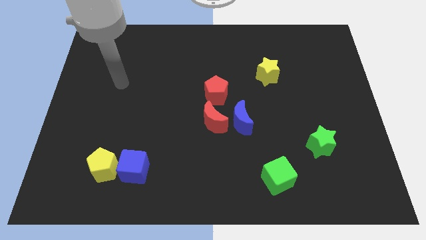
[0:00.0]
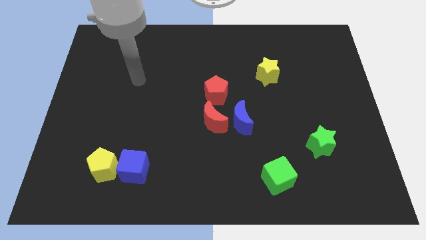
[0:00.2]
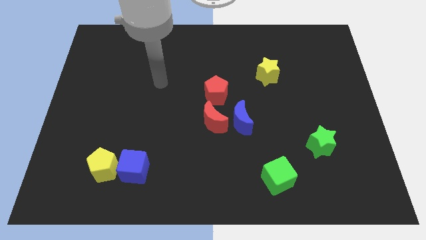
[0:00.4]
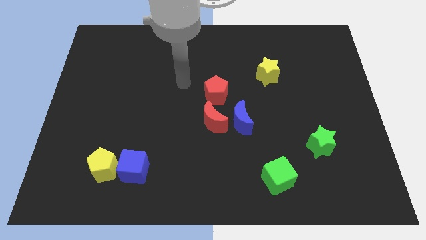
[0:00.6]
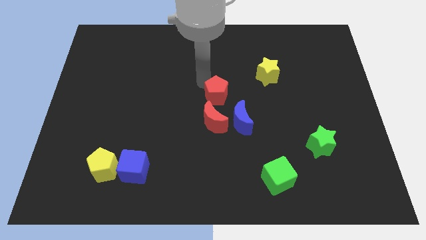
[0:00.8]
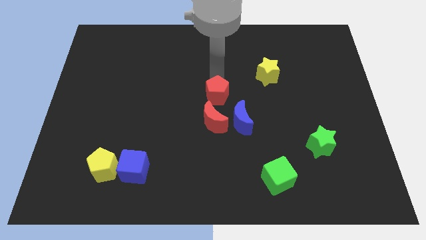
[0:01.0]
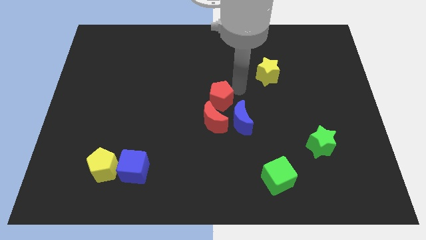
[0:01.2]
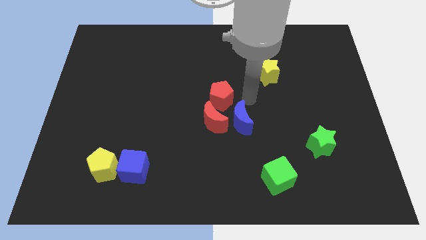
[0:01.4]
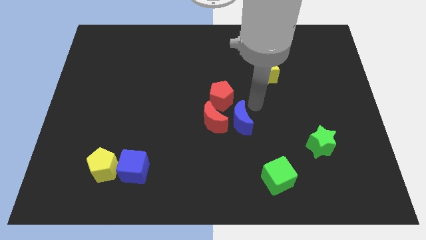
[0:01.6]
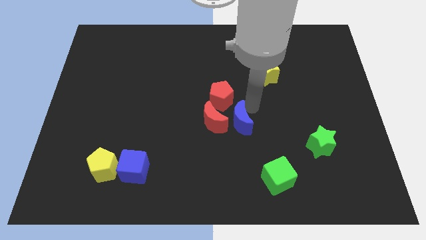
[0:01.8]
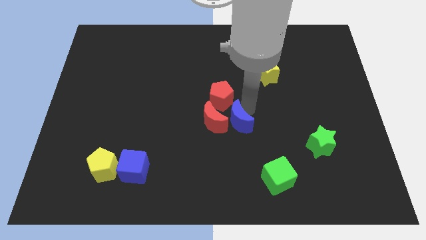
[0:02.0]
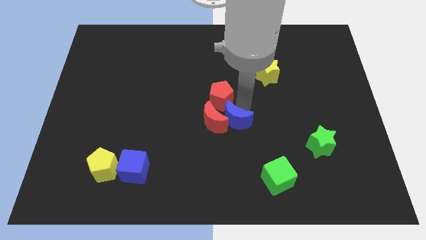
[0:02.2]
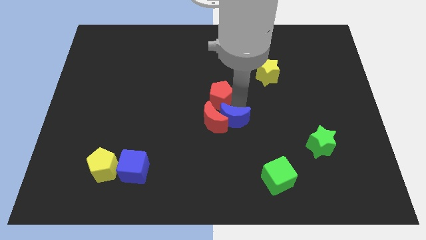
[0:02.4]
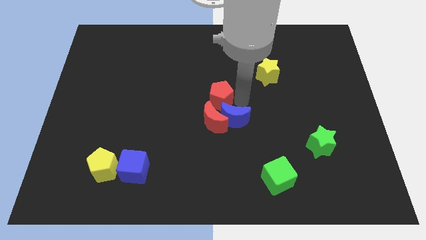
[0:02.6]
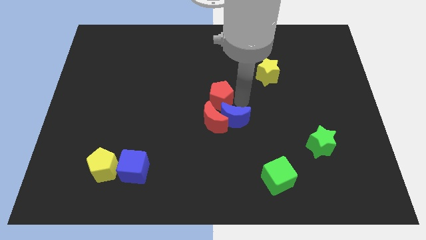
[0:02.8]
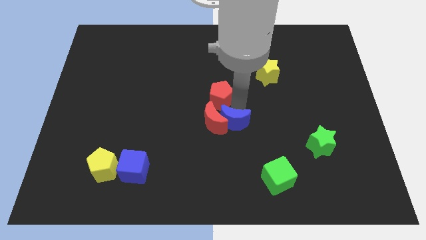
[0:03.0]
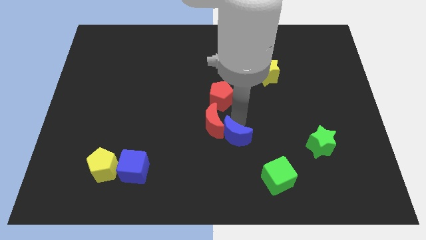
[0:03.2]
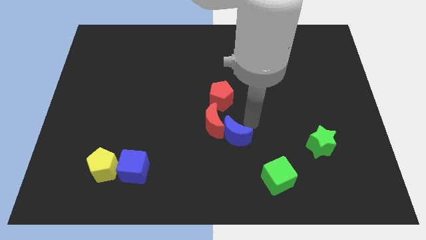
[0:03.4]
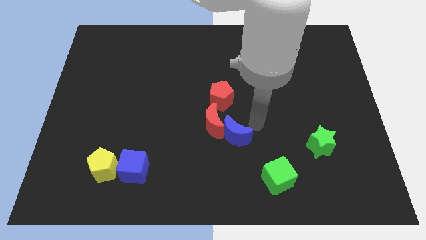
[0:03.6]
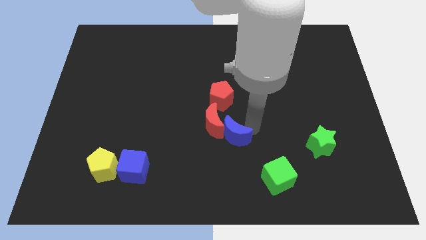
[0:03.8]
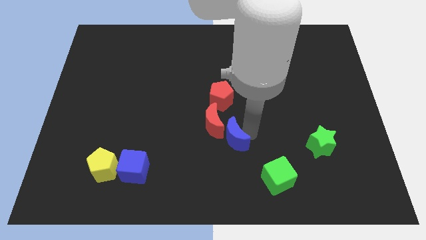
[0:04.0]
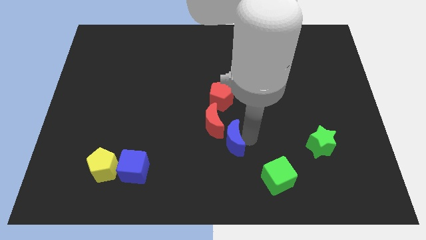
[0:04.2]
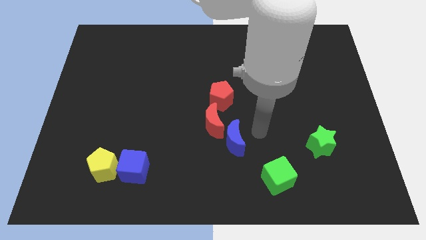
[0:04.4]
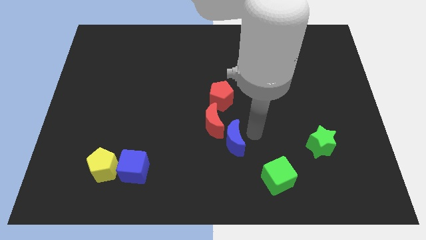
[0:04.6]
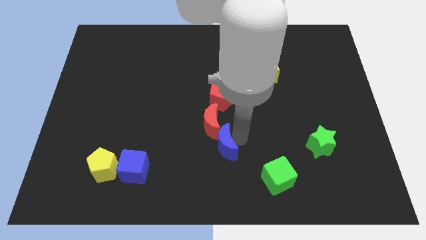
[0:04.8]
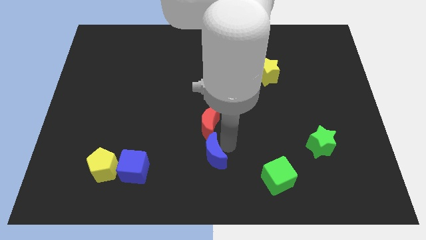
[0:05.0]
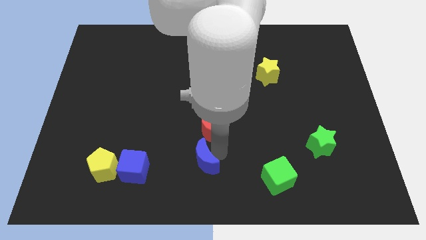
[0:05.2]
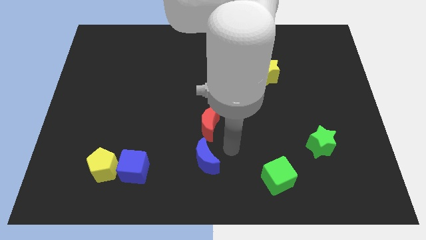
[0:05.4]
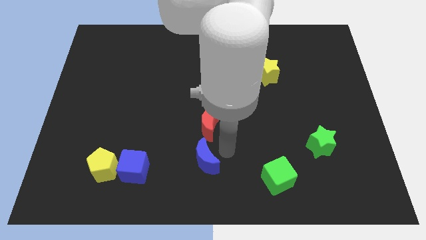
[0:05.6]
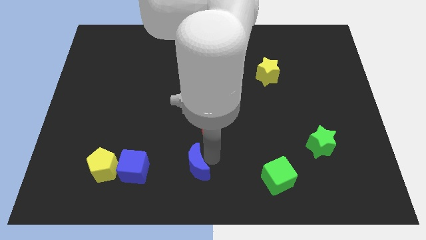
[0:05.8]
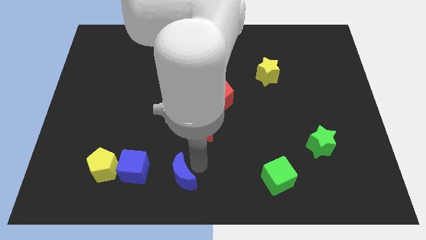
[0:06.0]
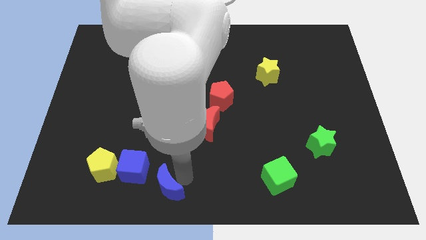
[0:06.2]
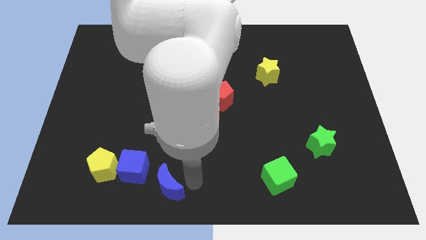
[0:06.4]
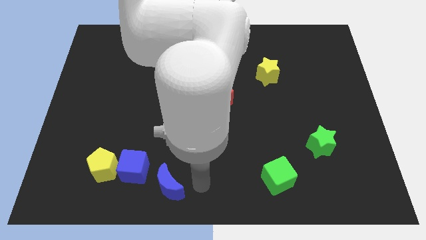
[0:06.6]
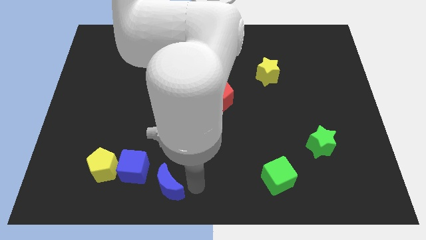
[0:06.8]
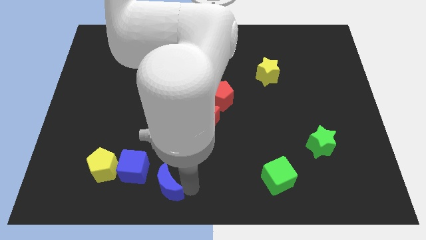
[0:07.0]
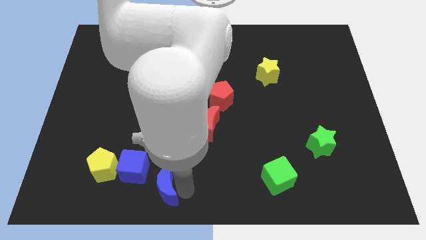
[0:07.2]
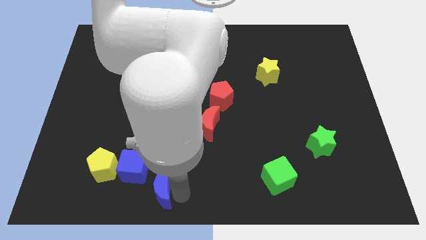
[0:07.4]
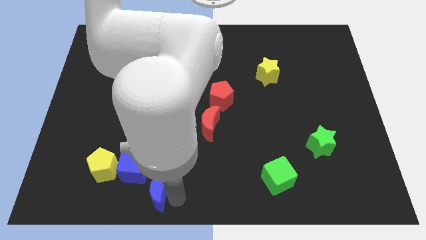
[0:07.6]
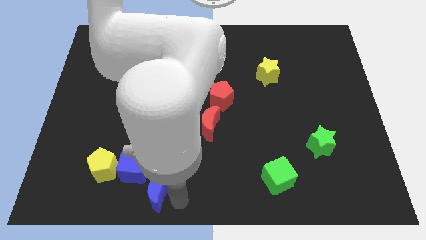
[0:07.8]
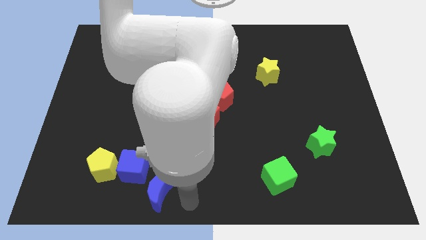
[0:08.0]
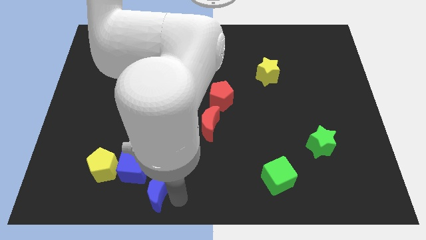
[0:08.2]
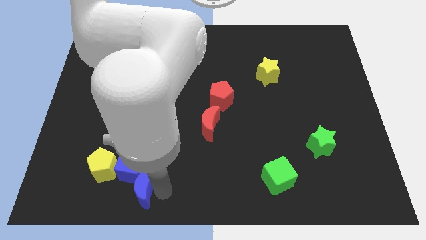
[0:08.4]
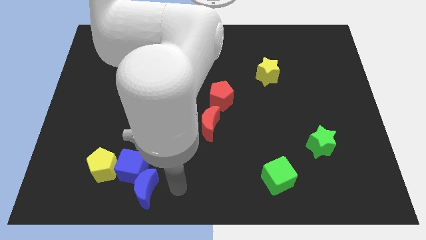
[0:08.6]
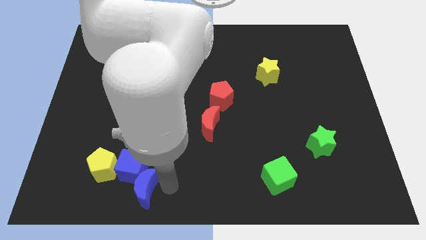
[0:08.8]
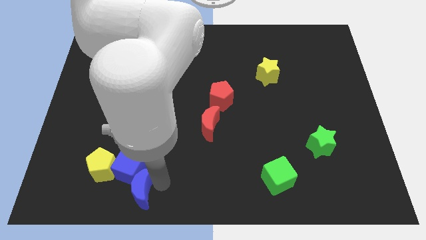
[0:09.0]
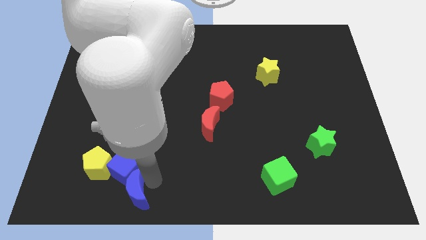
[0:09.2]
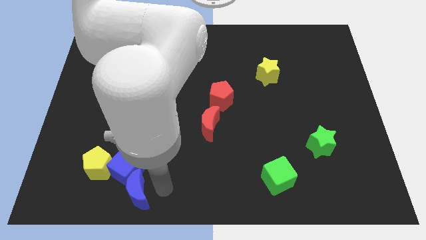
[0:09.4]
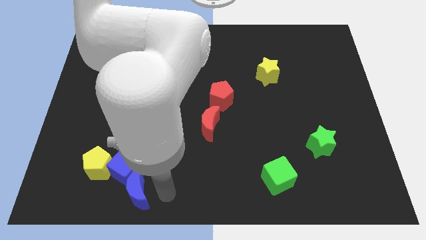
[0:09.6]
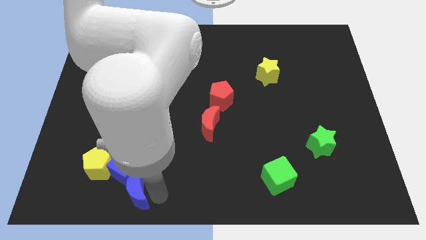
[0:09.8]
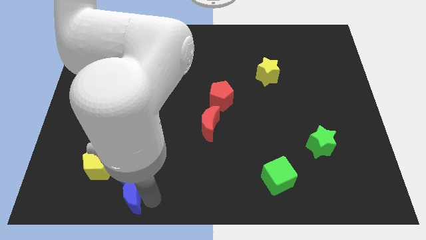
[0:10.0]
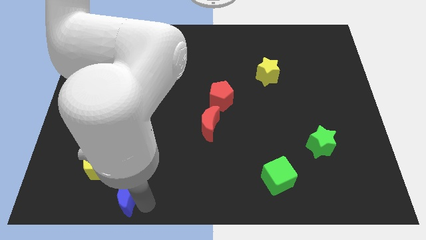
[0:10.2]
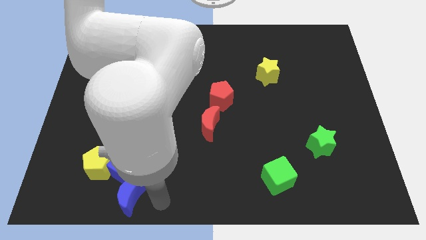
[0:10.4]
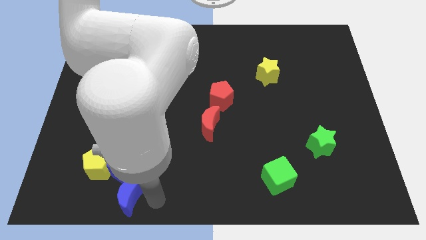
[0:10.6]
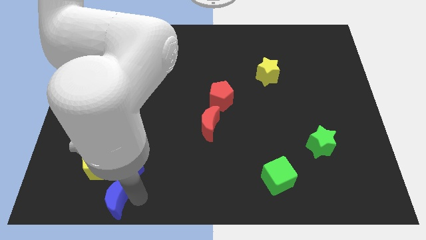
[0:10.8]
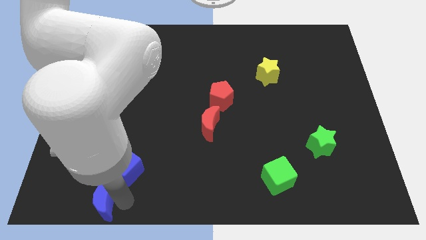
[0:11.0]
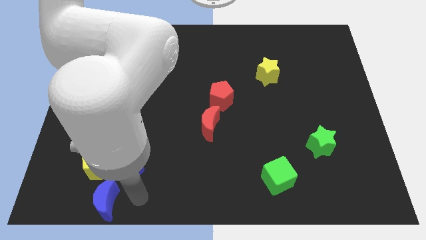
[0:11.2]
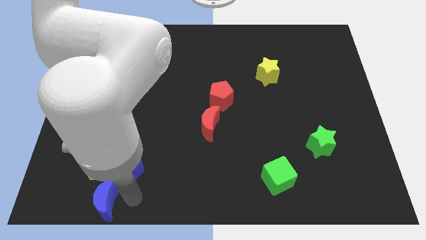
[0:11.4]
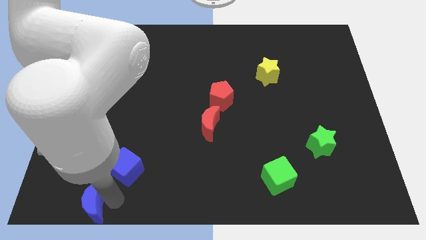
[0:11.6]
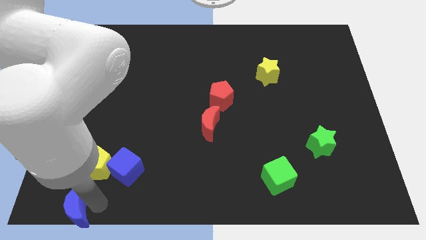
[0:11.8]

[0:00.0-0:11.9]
put the blue moon to the bottom left corner

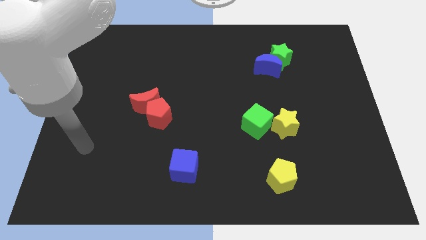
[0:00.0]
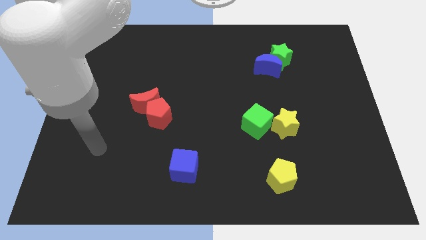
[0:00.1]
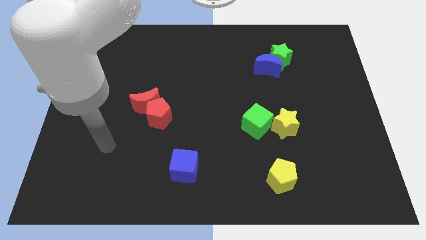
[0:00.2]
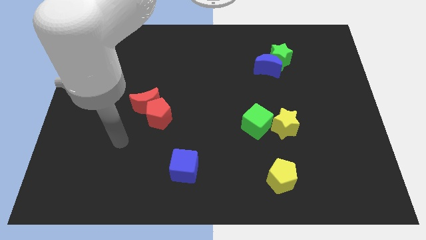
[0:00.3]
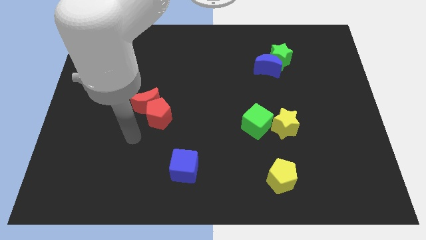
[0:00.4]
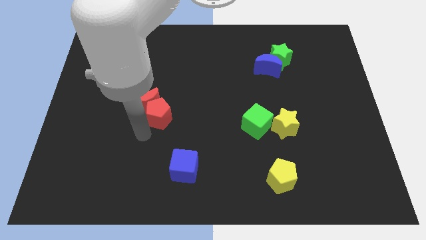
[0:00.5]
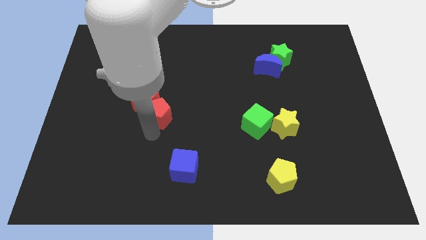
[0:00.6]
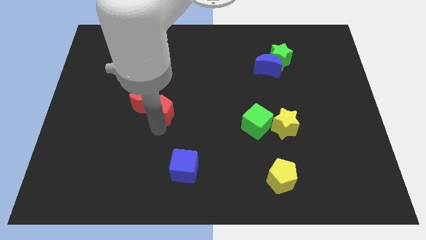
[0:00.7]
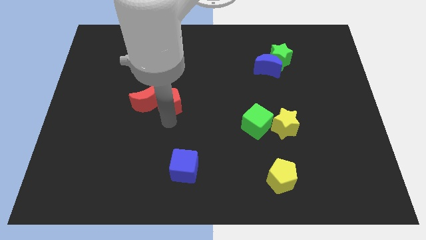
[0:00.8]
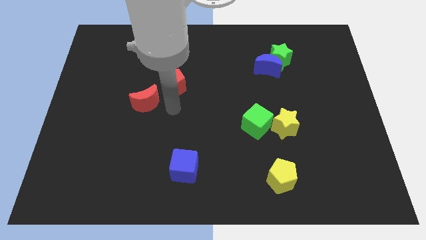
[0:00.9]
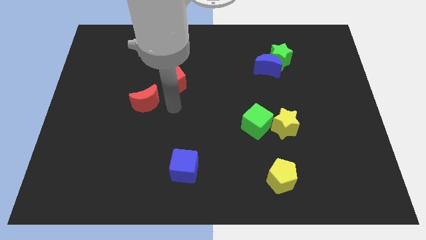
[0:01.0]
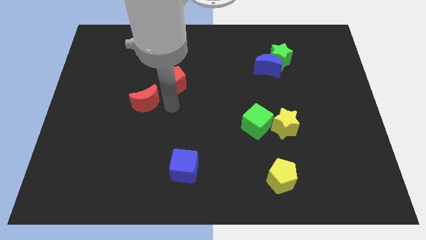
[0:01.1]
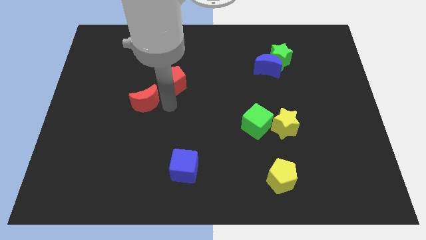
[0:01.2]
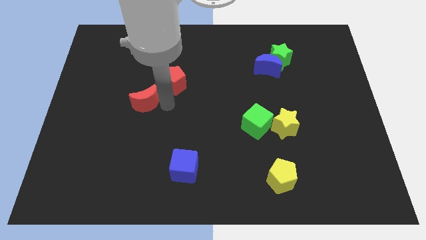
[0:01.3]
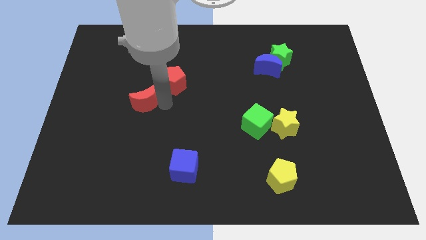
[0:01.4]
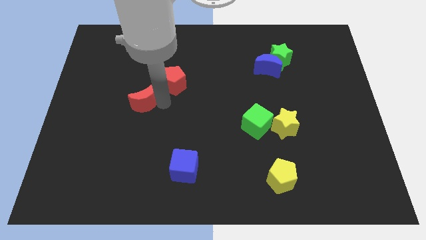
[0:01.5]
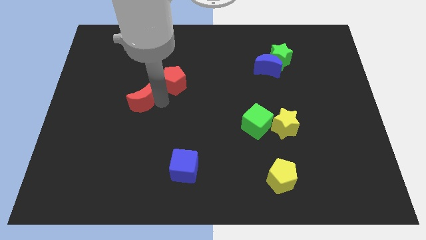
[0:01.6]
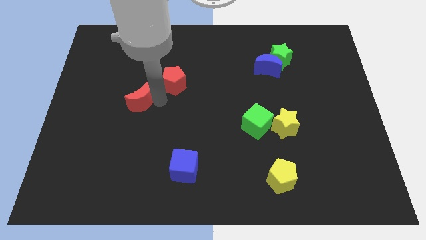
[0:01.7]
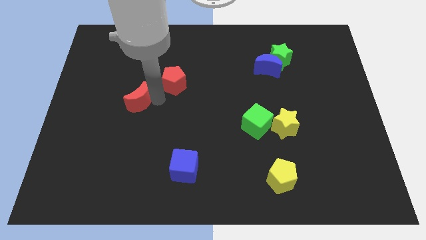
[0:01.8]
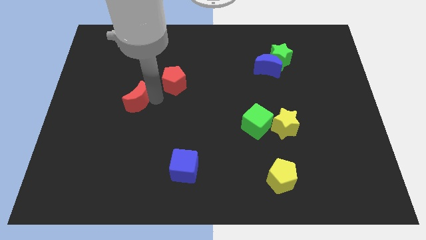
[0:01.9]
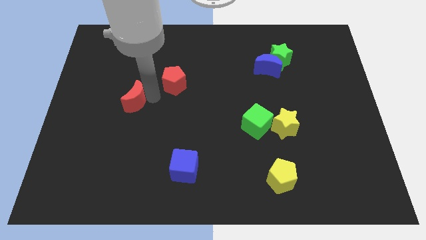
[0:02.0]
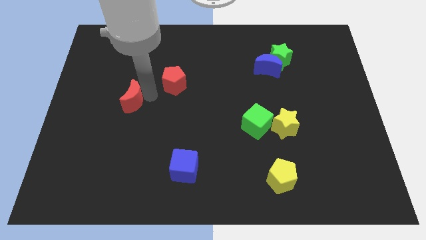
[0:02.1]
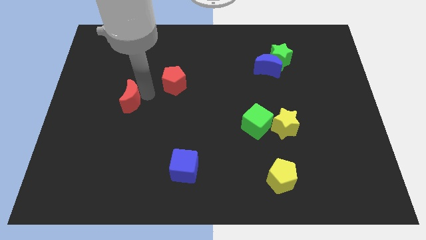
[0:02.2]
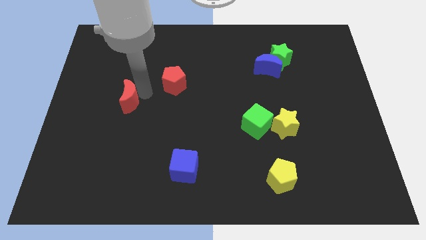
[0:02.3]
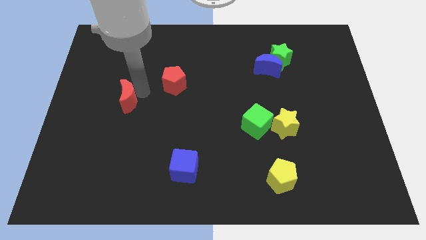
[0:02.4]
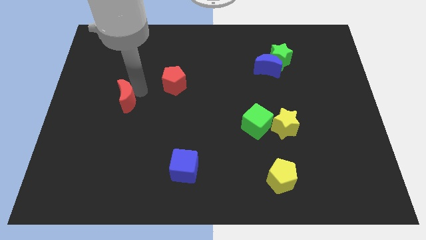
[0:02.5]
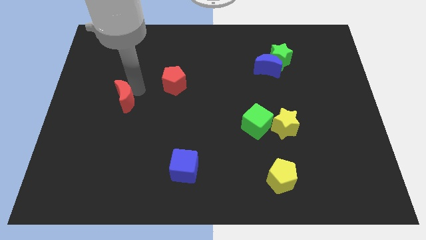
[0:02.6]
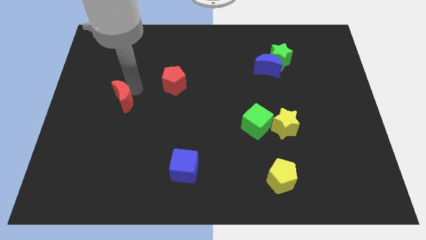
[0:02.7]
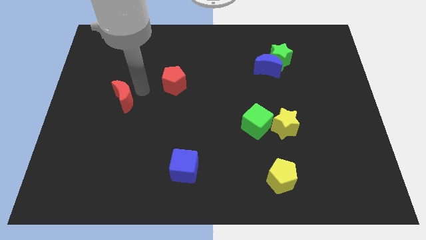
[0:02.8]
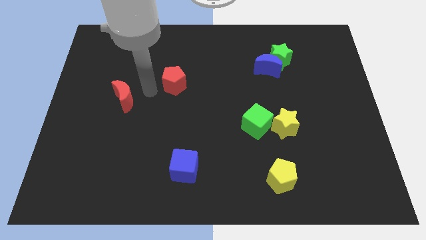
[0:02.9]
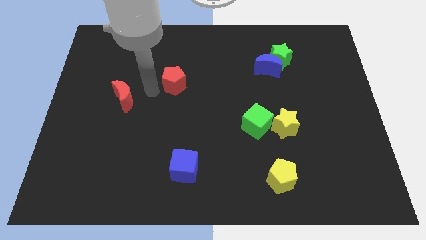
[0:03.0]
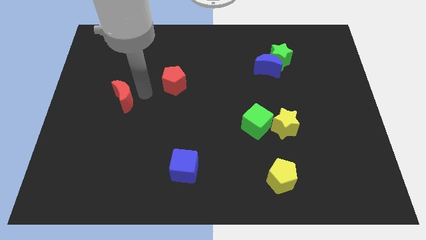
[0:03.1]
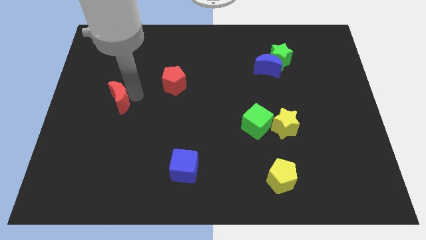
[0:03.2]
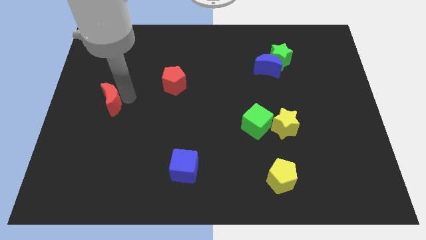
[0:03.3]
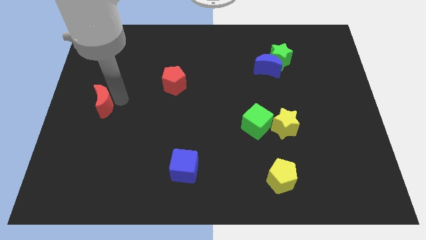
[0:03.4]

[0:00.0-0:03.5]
move the red moon to the left side
